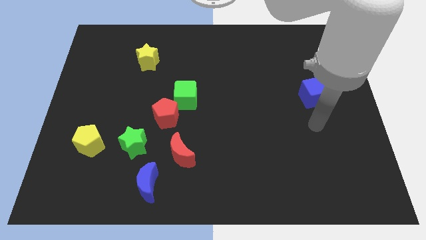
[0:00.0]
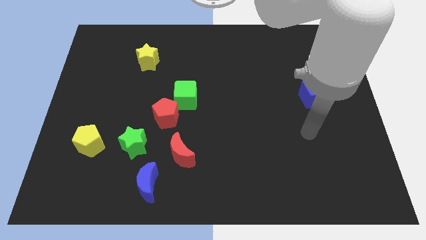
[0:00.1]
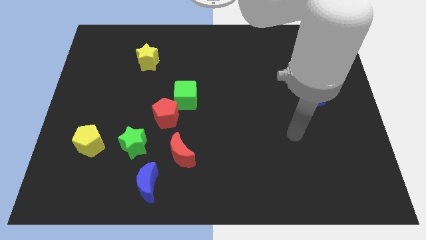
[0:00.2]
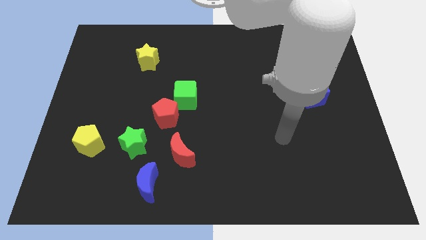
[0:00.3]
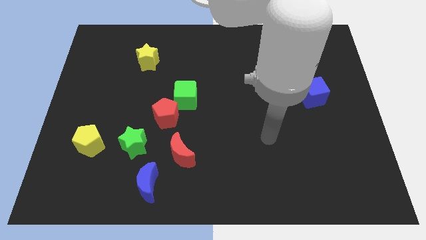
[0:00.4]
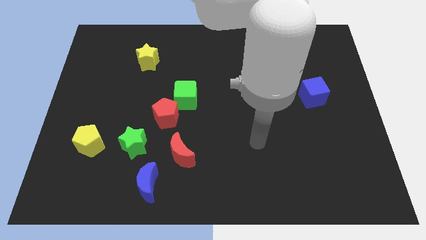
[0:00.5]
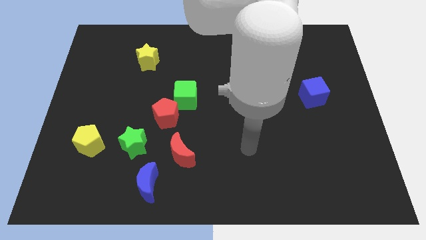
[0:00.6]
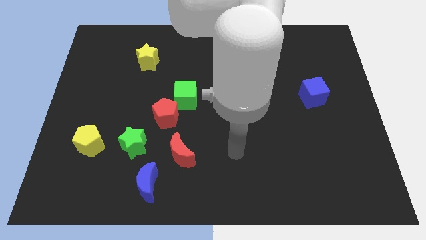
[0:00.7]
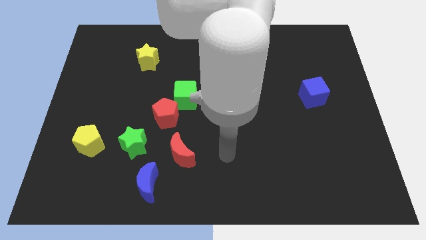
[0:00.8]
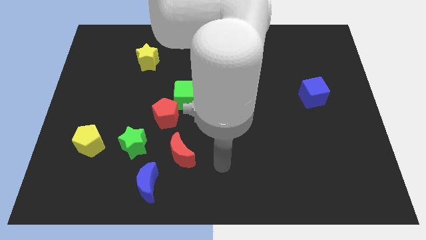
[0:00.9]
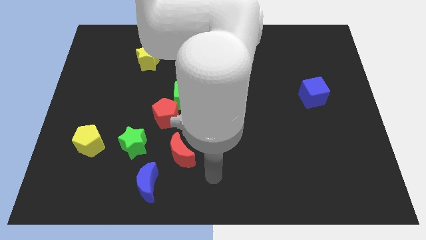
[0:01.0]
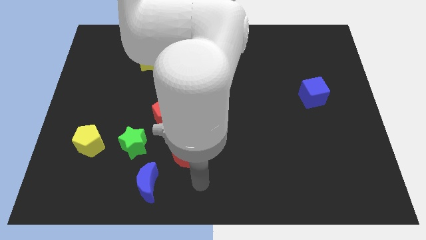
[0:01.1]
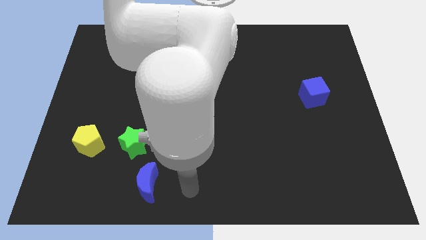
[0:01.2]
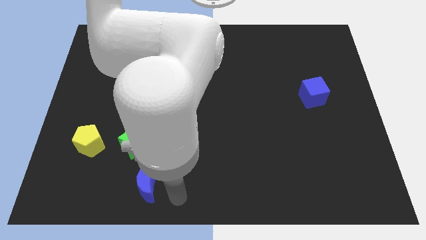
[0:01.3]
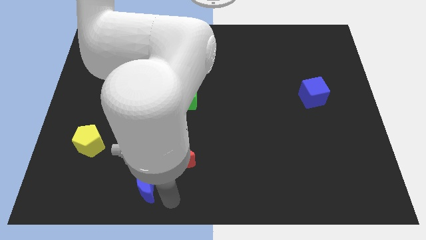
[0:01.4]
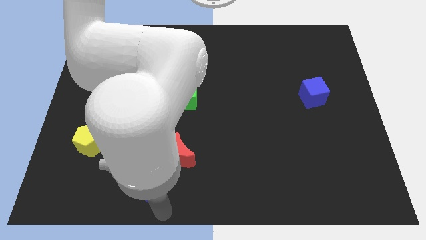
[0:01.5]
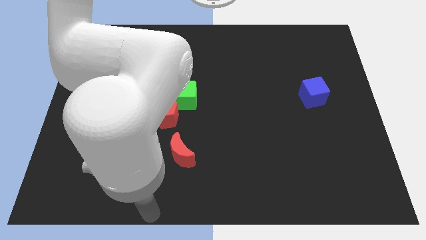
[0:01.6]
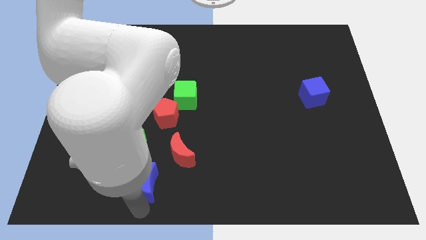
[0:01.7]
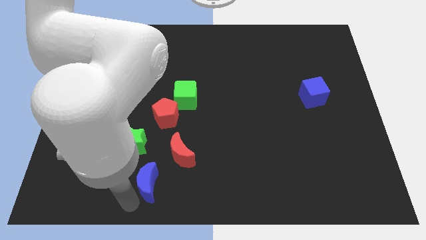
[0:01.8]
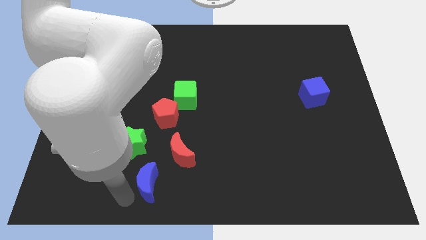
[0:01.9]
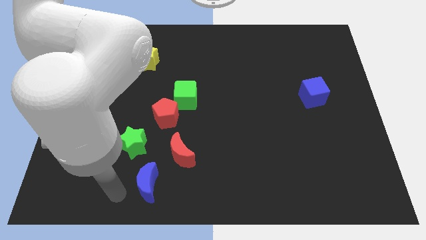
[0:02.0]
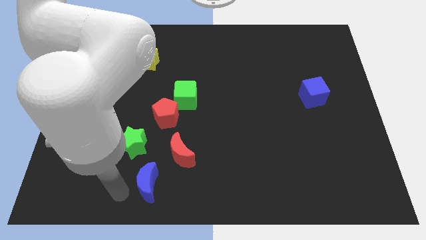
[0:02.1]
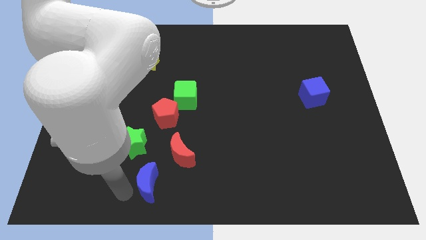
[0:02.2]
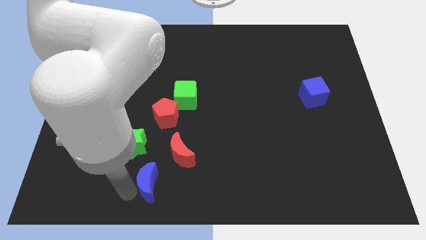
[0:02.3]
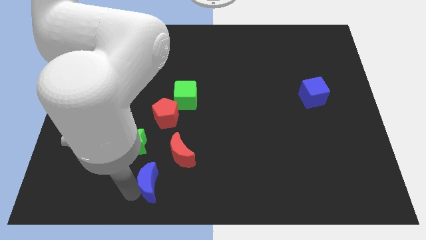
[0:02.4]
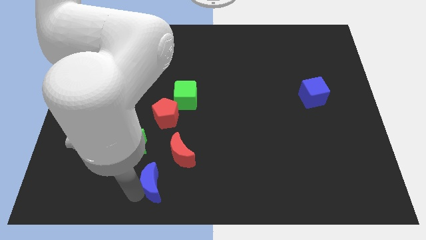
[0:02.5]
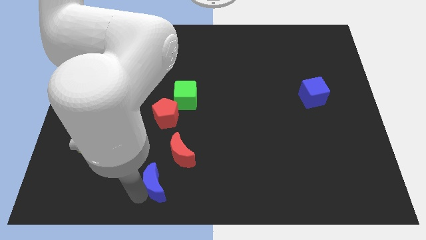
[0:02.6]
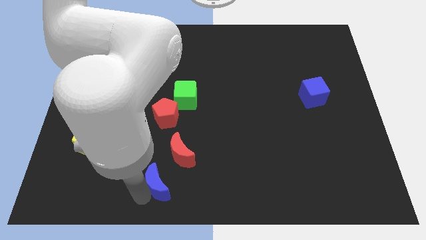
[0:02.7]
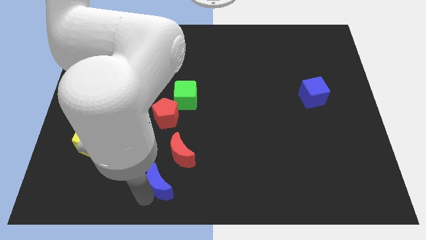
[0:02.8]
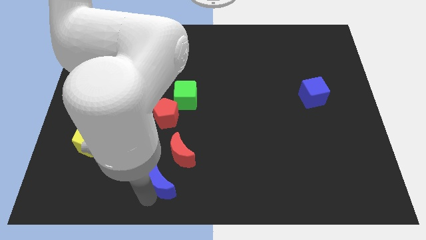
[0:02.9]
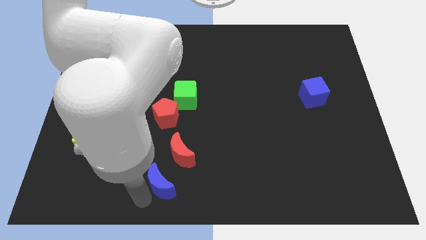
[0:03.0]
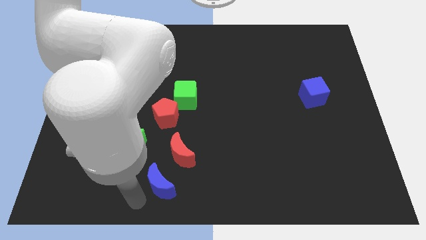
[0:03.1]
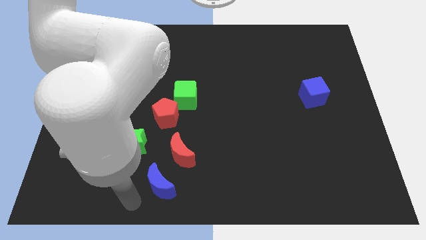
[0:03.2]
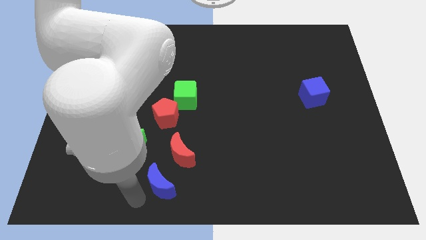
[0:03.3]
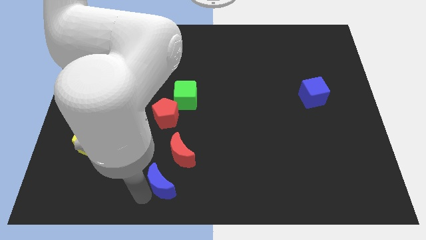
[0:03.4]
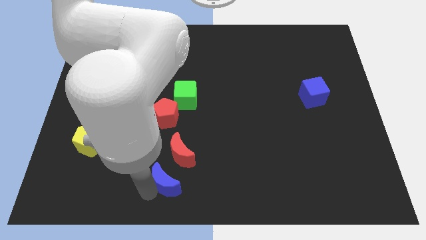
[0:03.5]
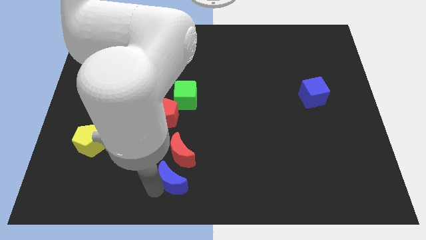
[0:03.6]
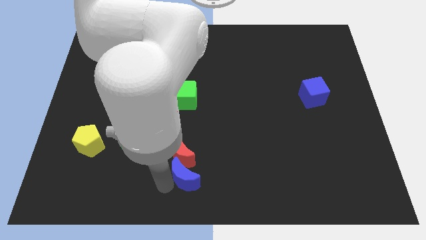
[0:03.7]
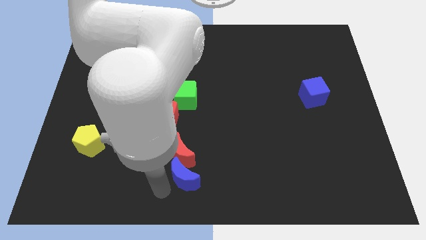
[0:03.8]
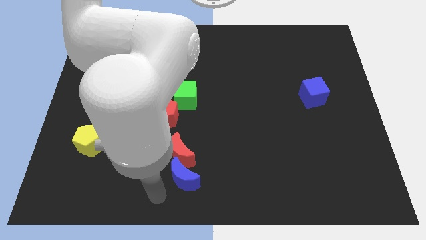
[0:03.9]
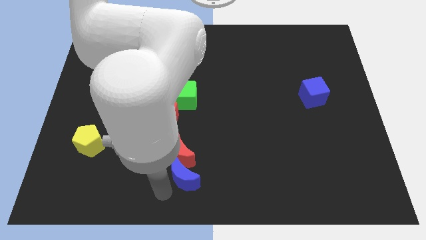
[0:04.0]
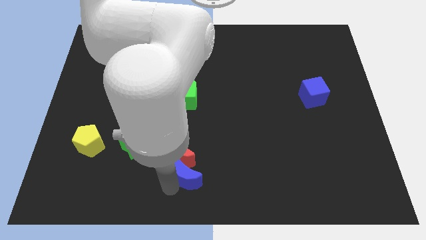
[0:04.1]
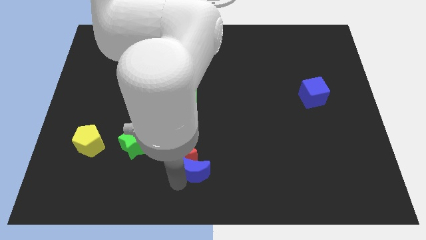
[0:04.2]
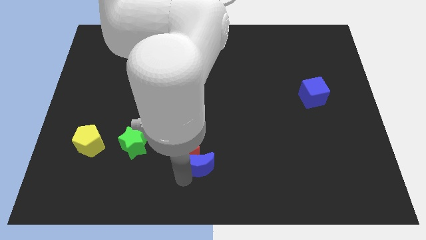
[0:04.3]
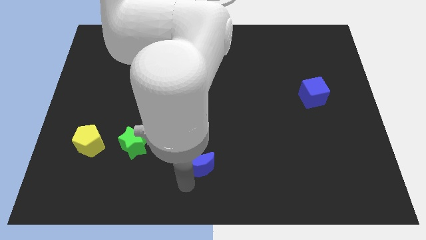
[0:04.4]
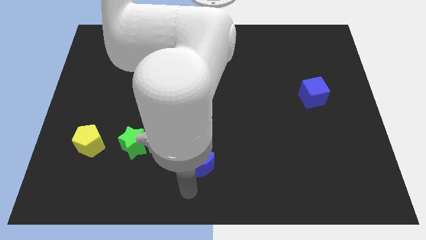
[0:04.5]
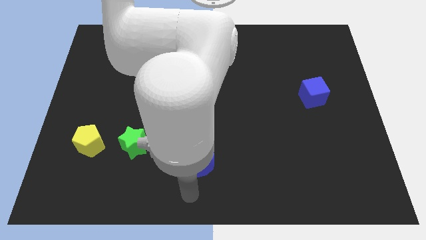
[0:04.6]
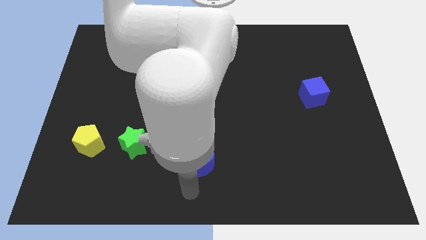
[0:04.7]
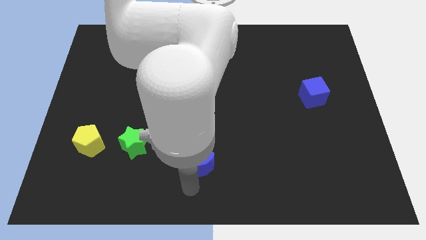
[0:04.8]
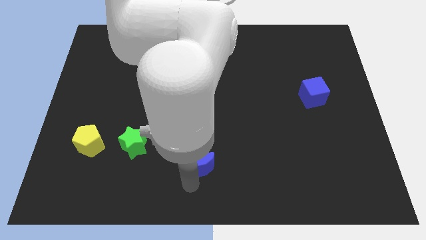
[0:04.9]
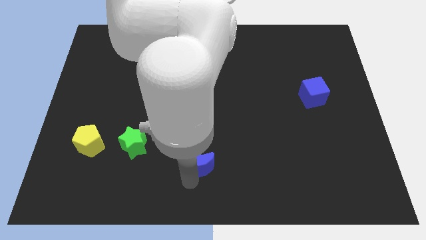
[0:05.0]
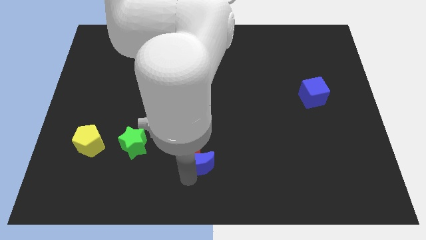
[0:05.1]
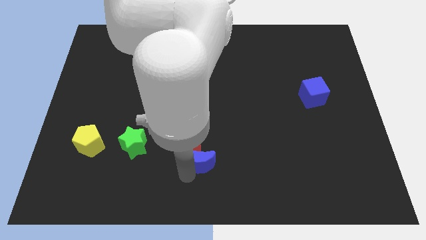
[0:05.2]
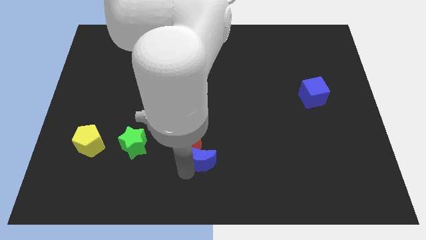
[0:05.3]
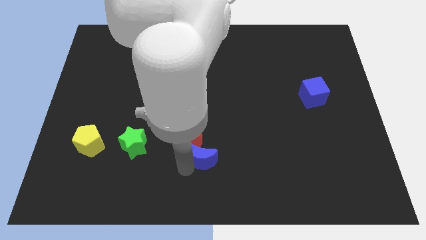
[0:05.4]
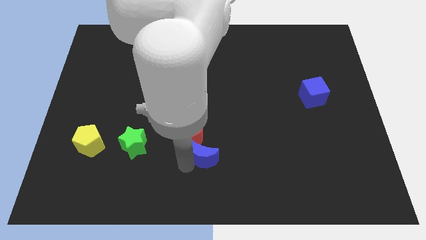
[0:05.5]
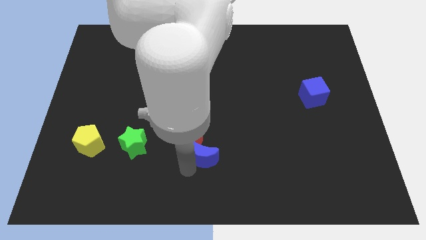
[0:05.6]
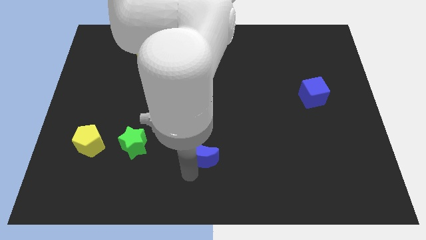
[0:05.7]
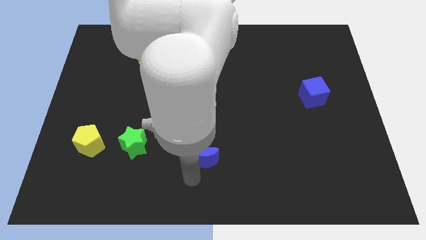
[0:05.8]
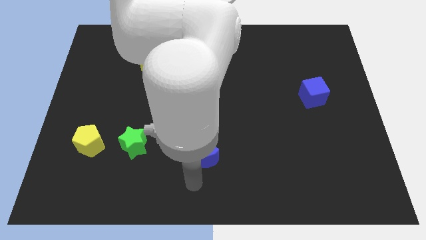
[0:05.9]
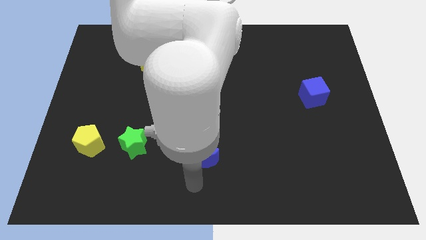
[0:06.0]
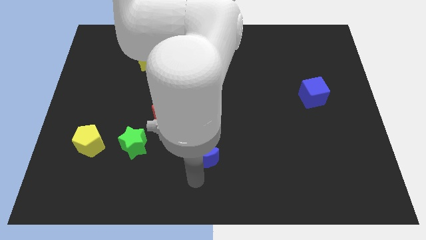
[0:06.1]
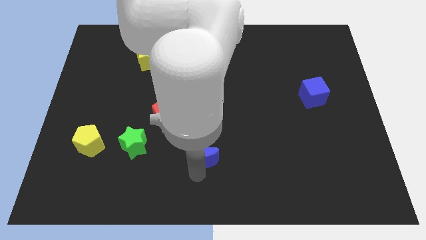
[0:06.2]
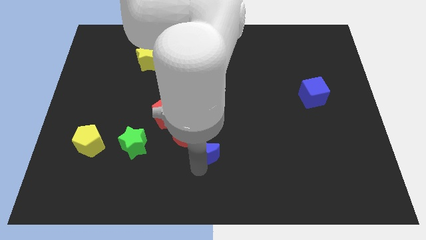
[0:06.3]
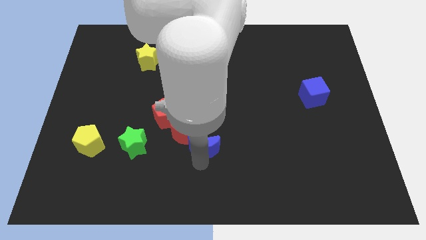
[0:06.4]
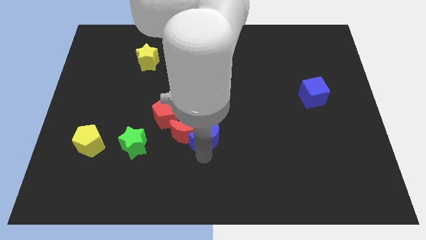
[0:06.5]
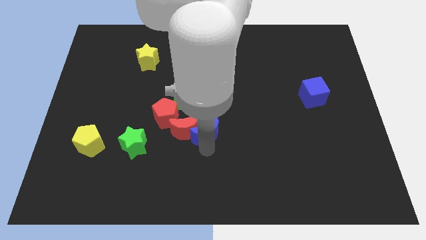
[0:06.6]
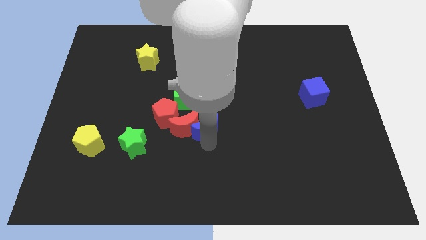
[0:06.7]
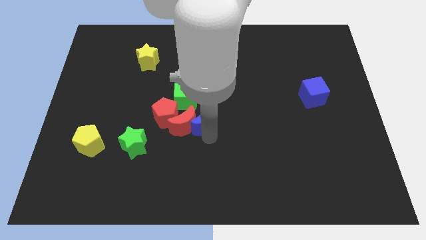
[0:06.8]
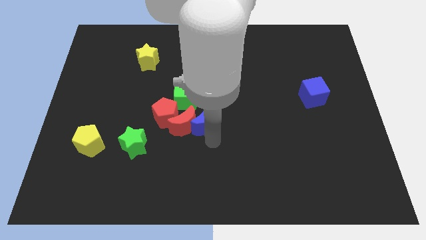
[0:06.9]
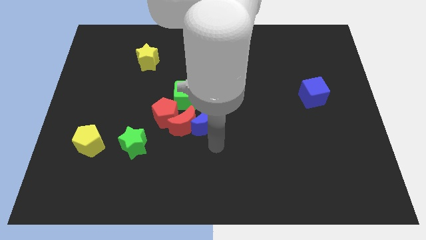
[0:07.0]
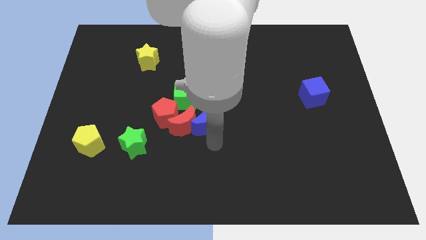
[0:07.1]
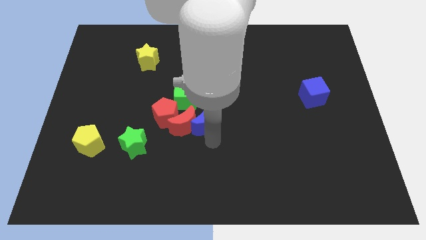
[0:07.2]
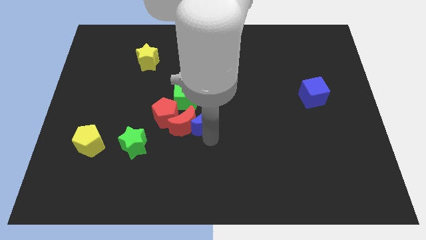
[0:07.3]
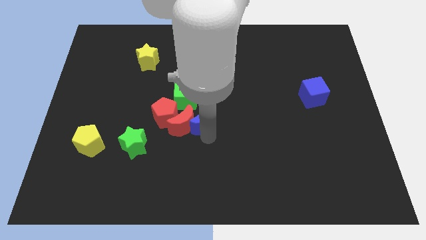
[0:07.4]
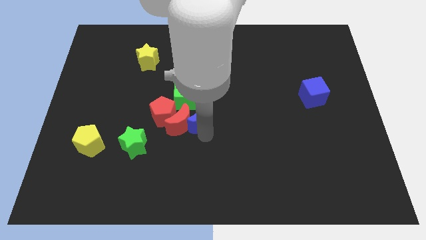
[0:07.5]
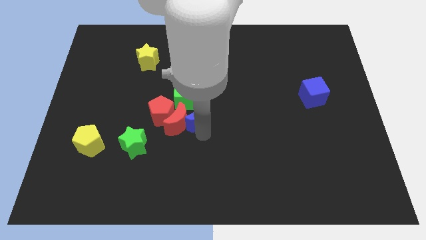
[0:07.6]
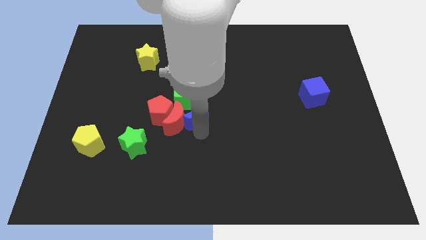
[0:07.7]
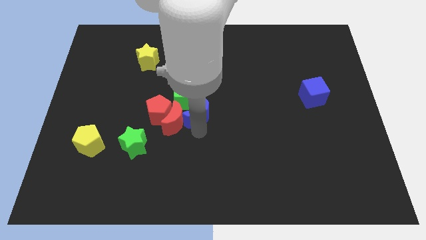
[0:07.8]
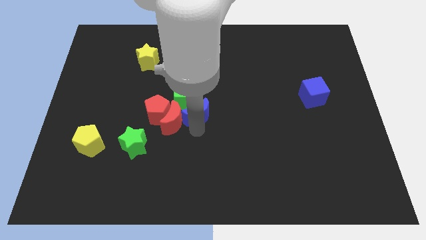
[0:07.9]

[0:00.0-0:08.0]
slide the blue moon close to the green cube
